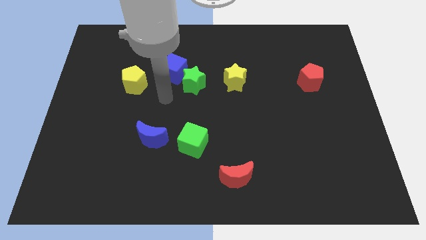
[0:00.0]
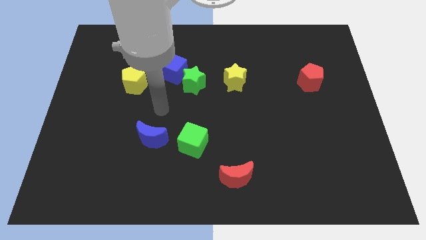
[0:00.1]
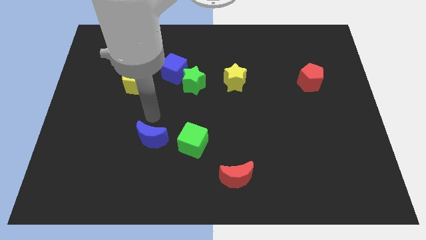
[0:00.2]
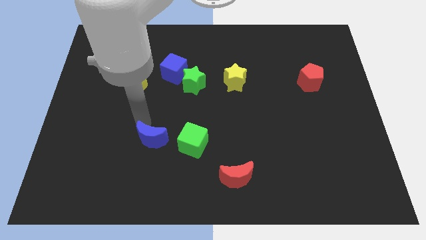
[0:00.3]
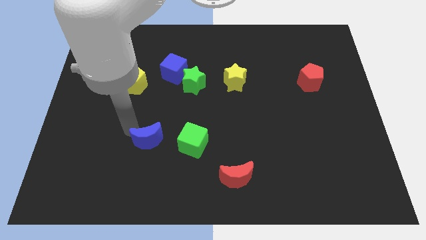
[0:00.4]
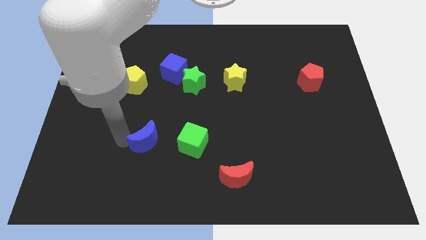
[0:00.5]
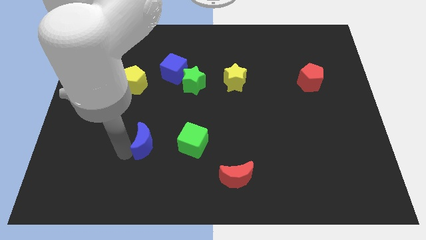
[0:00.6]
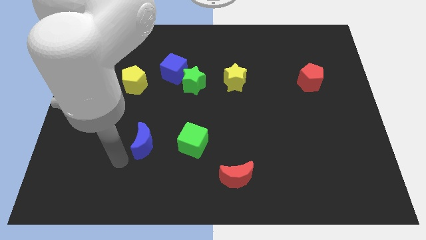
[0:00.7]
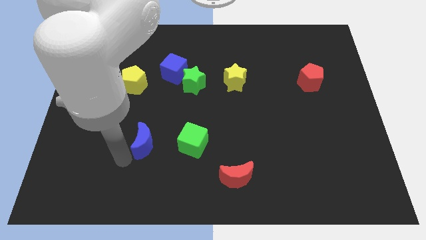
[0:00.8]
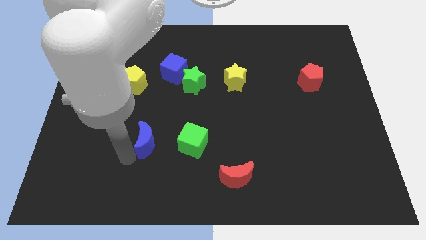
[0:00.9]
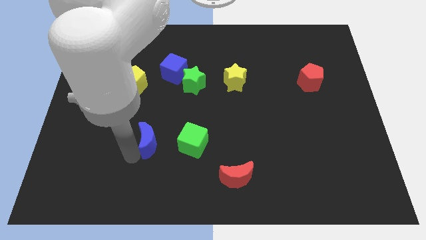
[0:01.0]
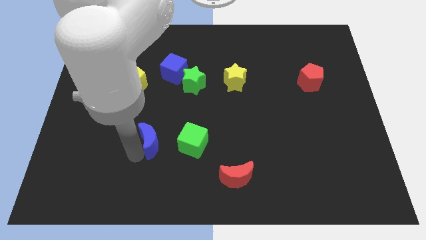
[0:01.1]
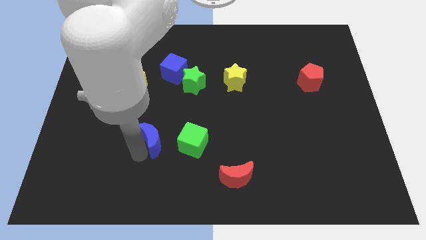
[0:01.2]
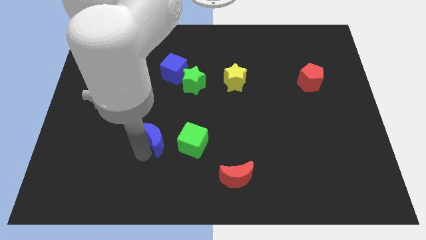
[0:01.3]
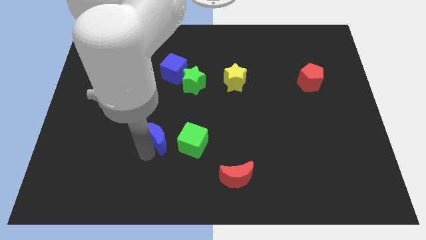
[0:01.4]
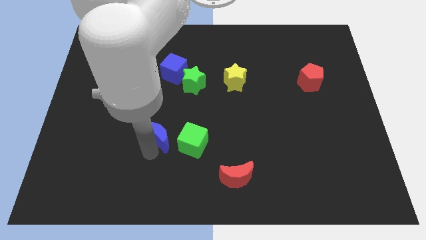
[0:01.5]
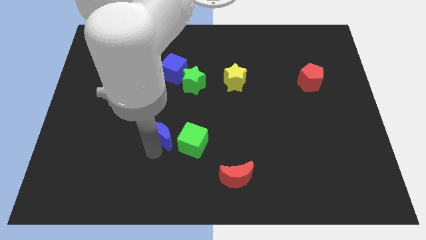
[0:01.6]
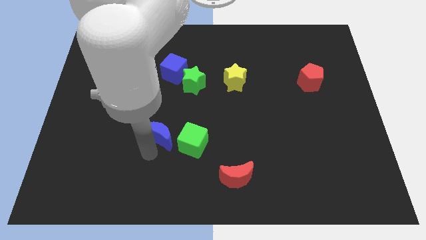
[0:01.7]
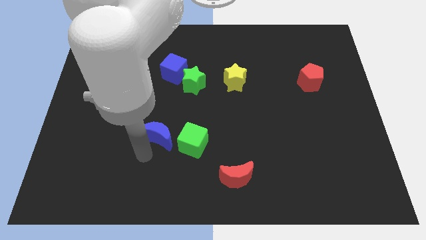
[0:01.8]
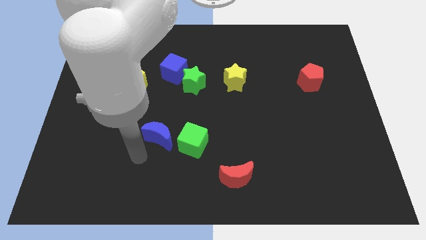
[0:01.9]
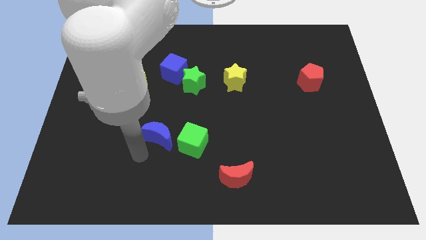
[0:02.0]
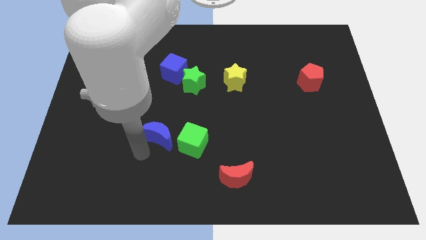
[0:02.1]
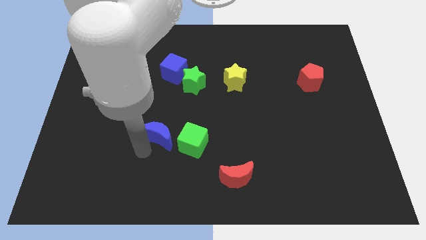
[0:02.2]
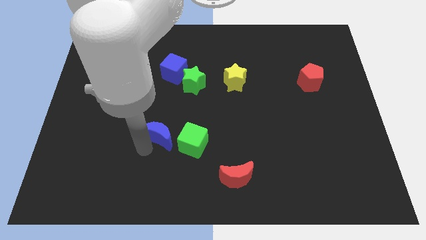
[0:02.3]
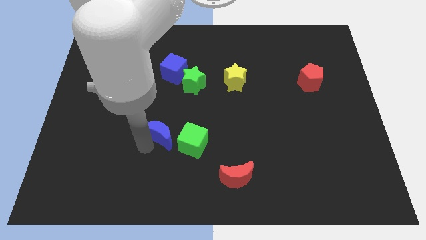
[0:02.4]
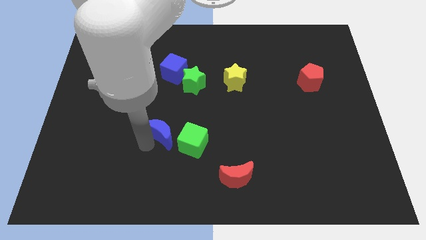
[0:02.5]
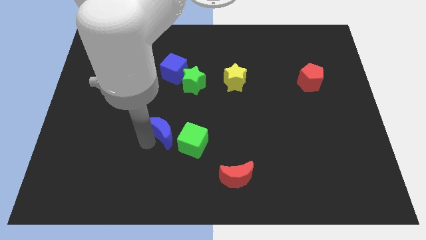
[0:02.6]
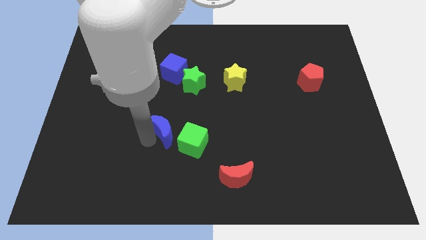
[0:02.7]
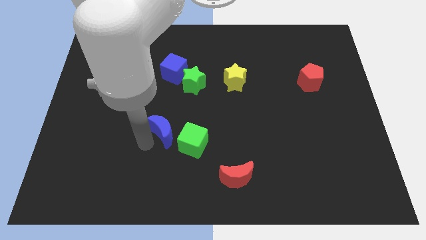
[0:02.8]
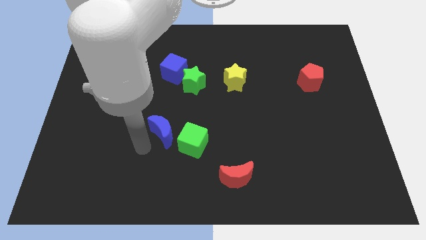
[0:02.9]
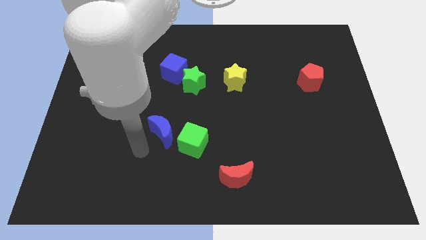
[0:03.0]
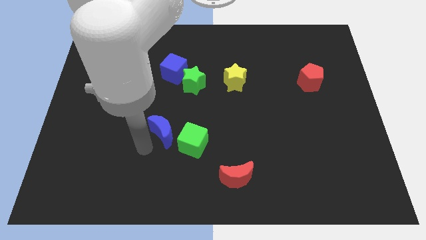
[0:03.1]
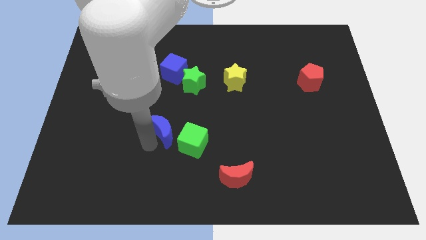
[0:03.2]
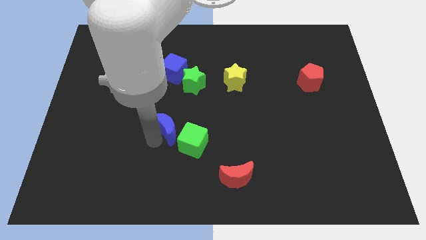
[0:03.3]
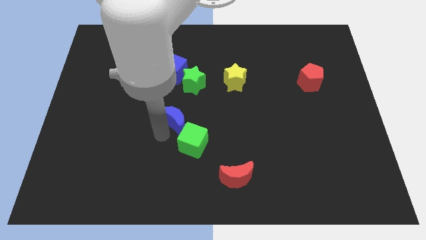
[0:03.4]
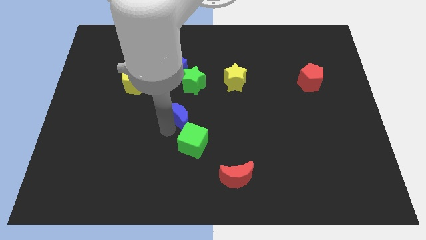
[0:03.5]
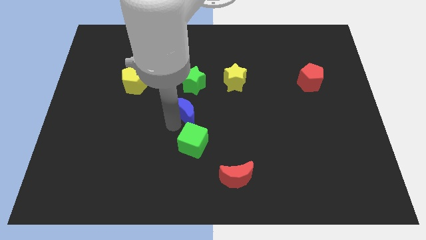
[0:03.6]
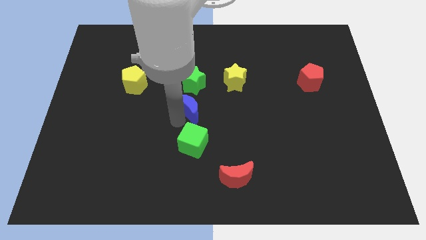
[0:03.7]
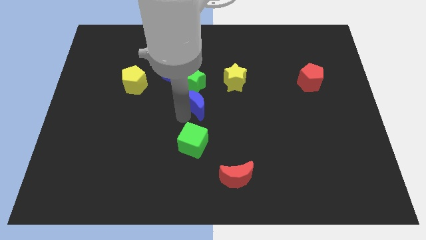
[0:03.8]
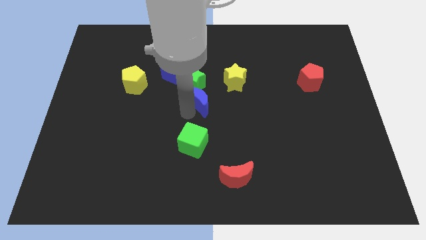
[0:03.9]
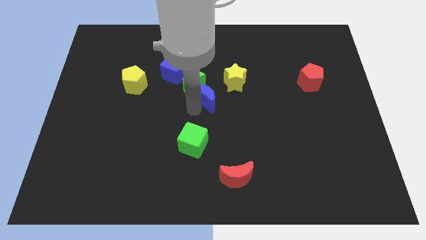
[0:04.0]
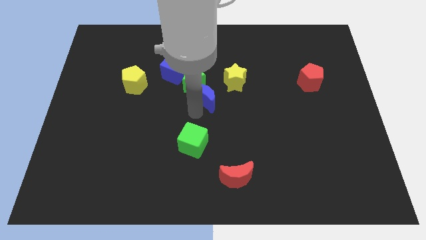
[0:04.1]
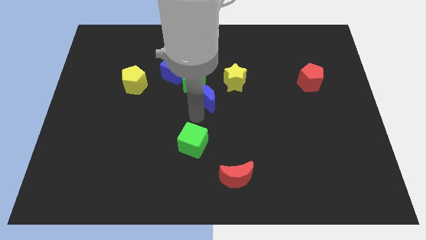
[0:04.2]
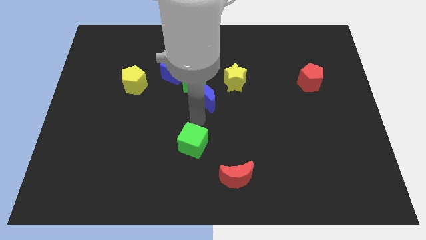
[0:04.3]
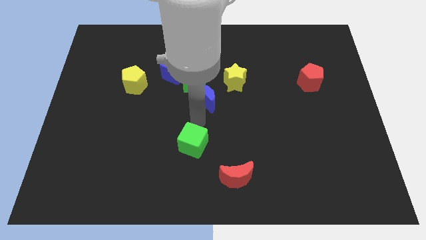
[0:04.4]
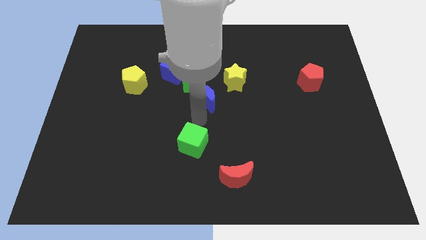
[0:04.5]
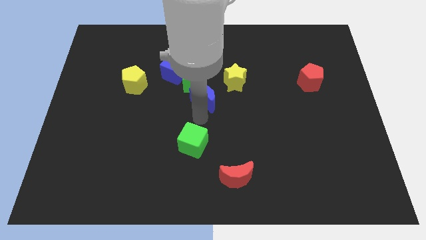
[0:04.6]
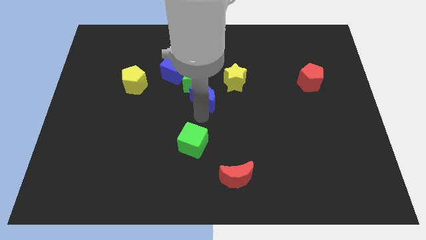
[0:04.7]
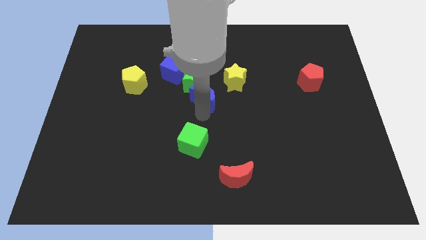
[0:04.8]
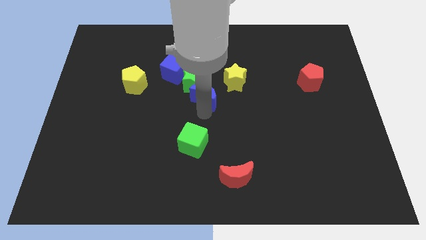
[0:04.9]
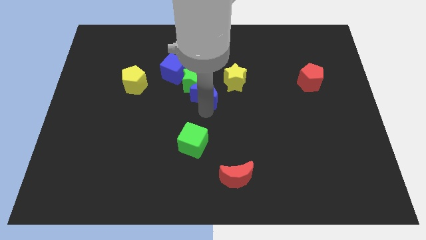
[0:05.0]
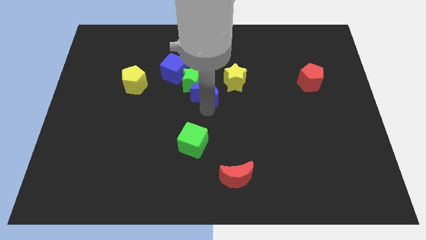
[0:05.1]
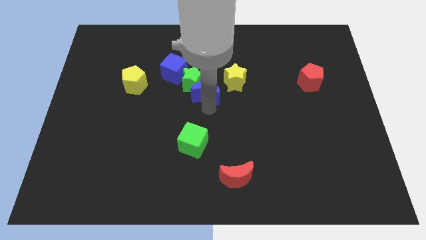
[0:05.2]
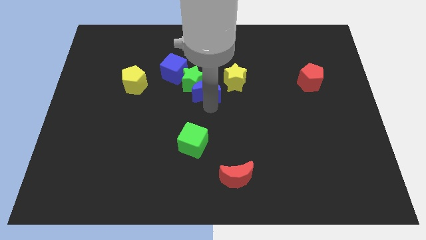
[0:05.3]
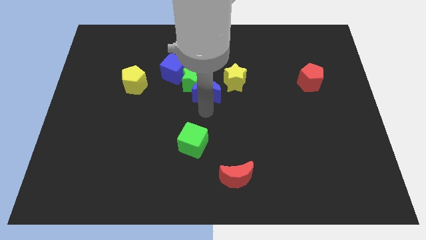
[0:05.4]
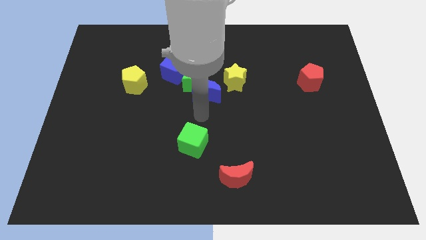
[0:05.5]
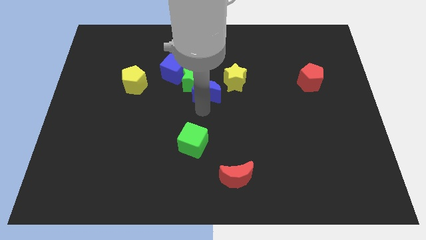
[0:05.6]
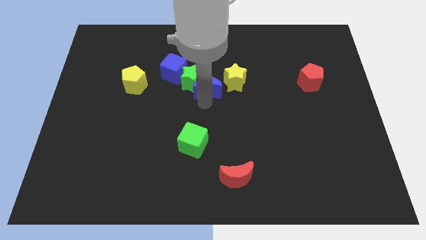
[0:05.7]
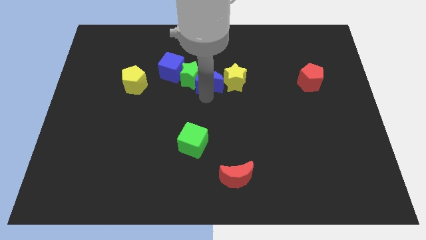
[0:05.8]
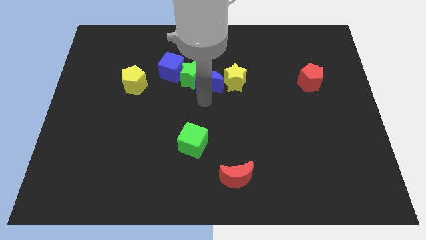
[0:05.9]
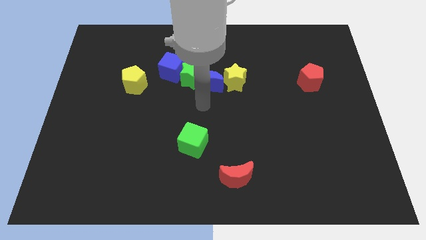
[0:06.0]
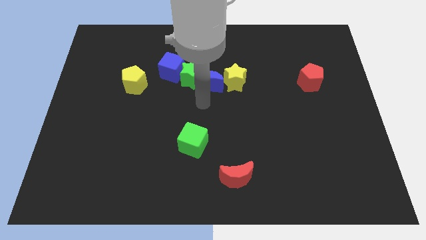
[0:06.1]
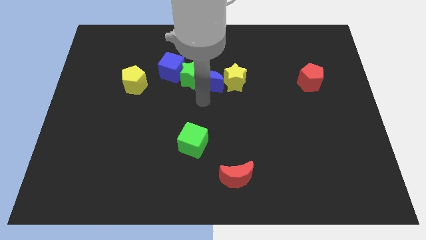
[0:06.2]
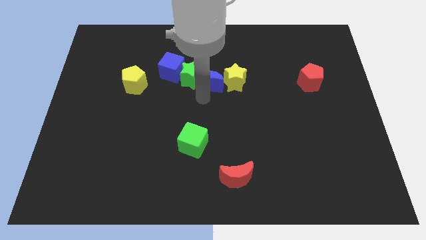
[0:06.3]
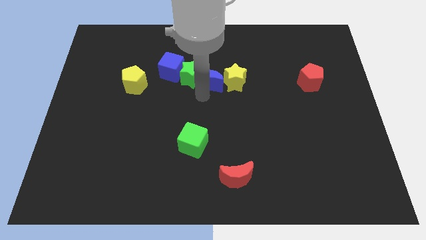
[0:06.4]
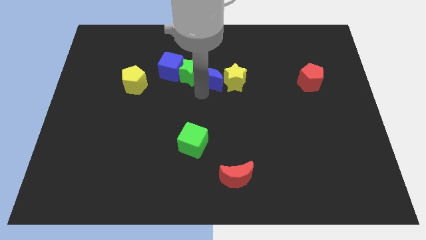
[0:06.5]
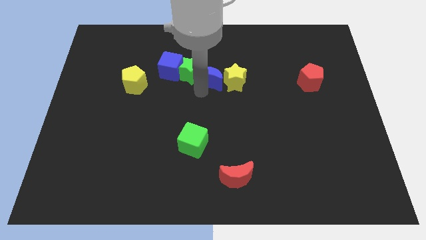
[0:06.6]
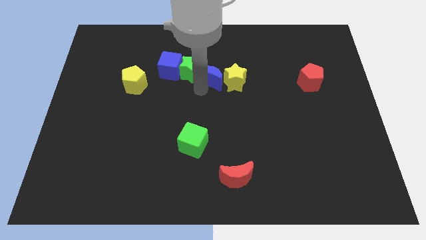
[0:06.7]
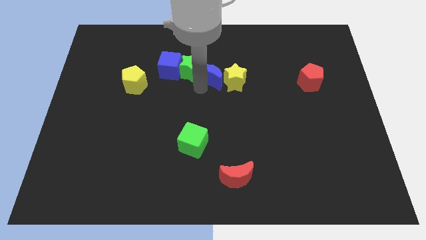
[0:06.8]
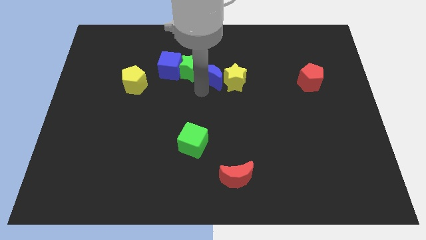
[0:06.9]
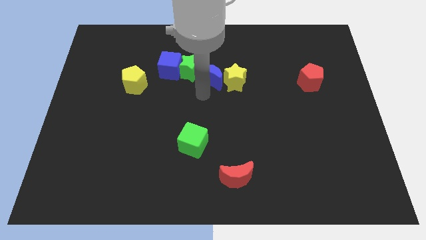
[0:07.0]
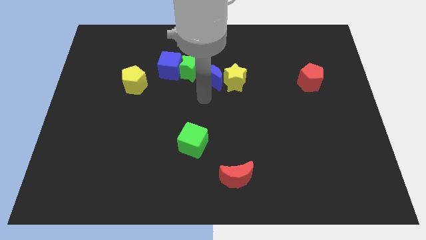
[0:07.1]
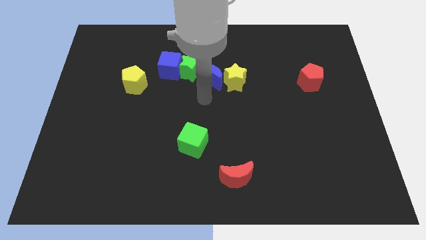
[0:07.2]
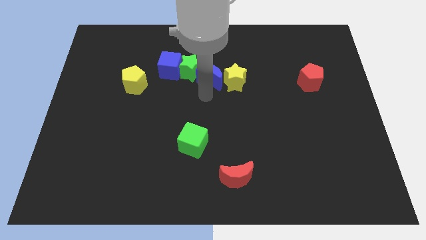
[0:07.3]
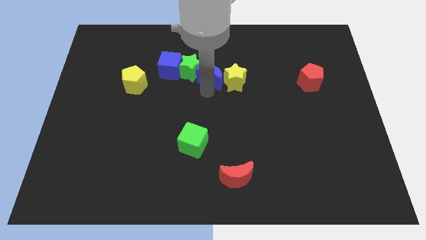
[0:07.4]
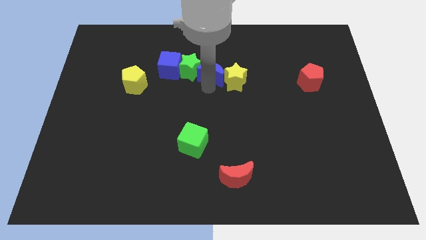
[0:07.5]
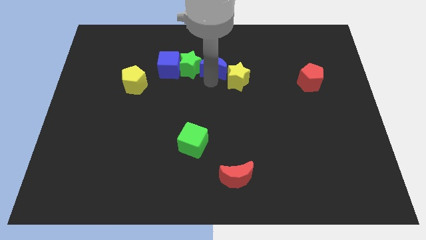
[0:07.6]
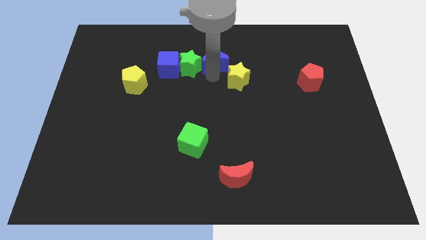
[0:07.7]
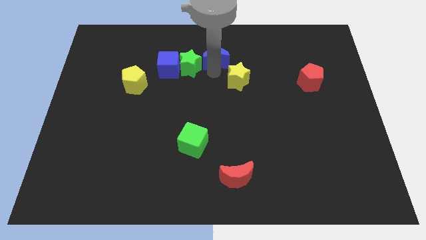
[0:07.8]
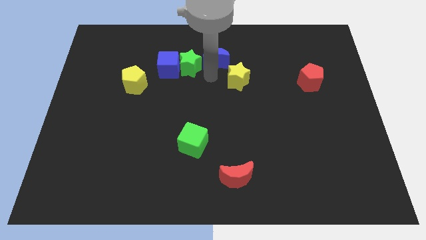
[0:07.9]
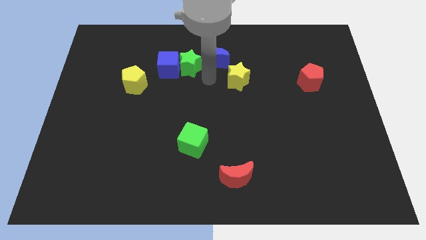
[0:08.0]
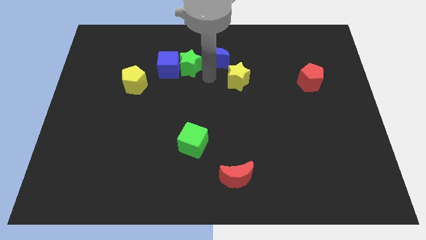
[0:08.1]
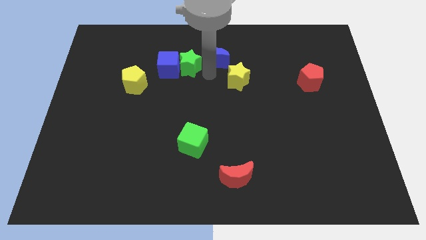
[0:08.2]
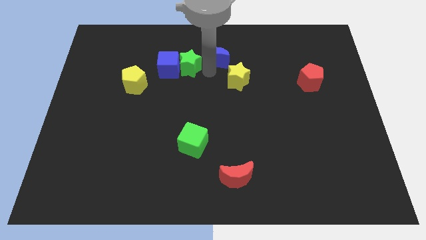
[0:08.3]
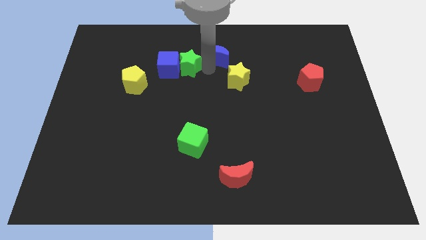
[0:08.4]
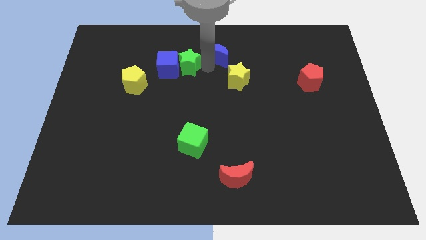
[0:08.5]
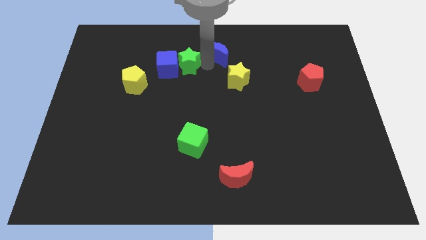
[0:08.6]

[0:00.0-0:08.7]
move the blue moon to the towards your base
